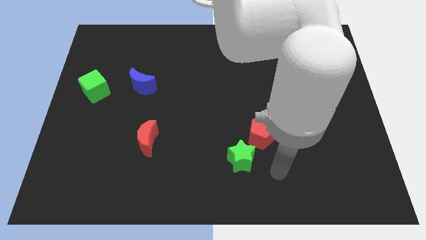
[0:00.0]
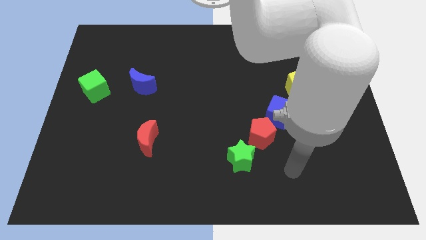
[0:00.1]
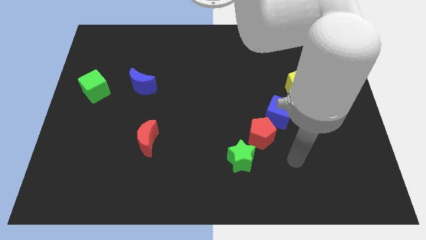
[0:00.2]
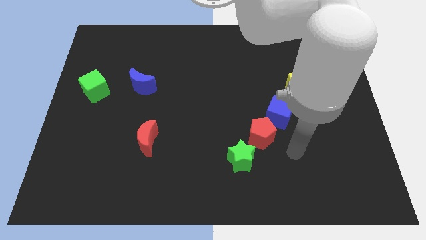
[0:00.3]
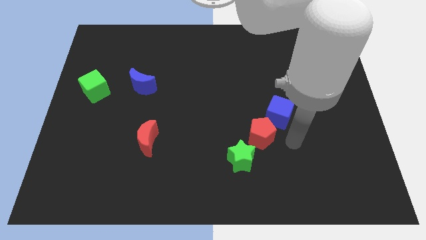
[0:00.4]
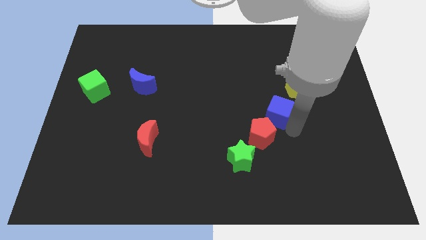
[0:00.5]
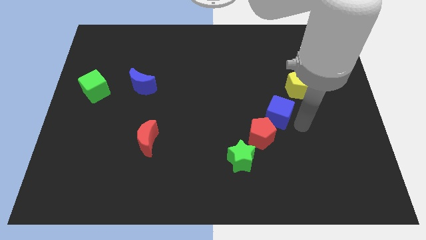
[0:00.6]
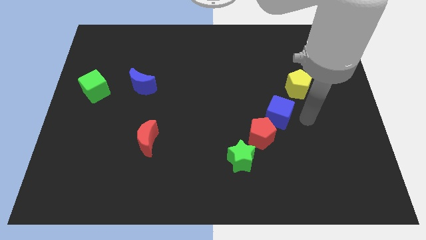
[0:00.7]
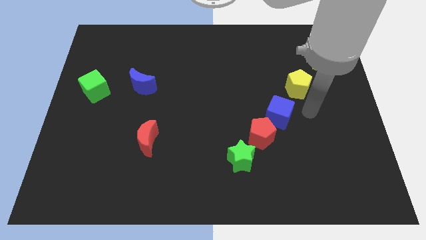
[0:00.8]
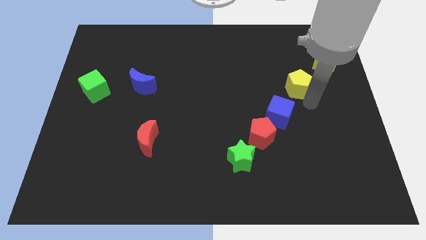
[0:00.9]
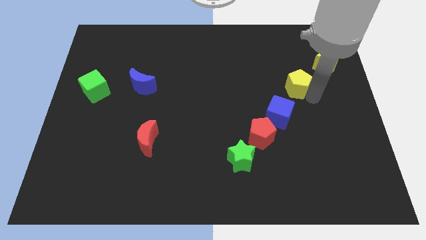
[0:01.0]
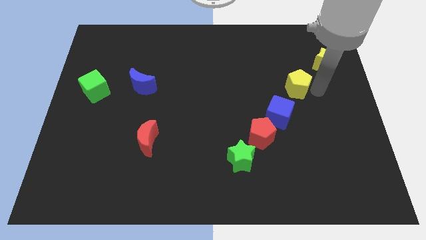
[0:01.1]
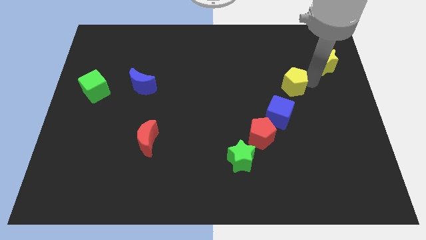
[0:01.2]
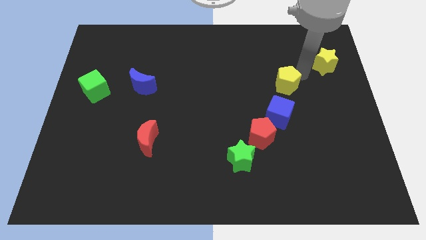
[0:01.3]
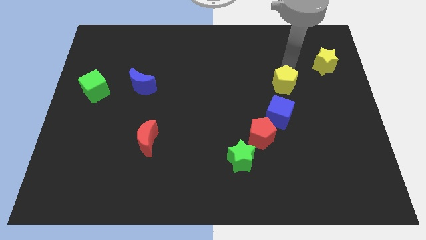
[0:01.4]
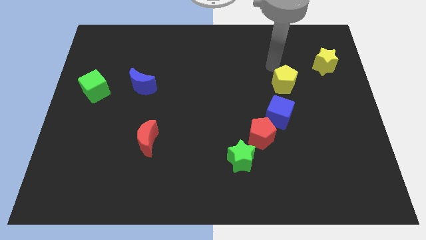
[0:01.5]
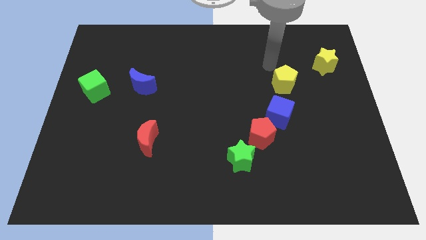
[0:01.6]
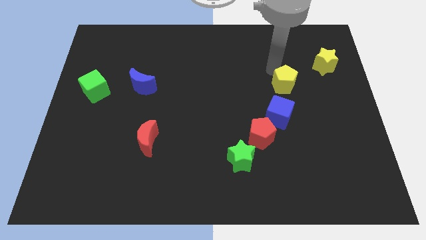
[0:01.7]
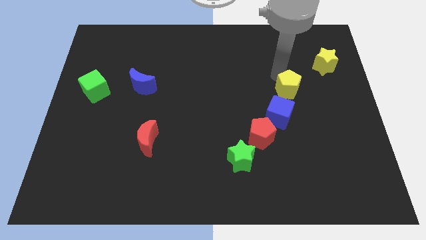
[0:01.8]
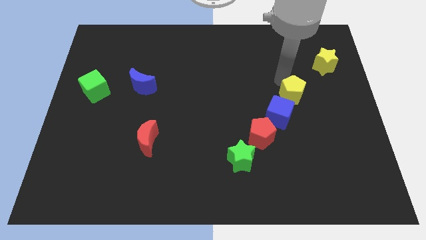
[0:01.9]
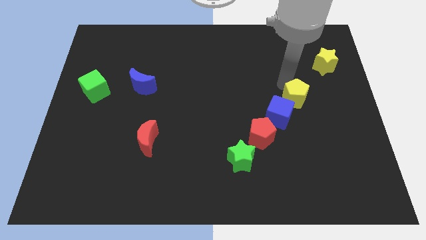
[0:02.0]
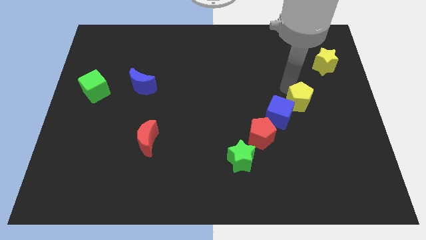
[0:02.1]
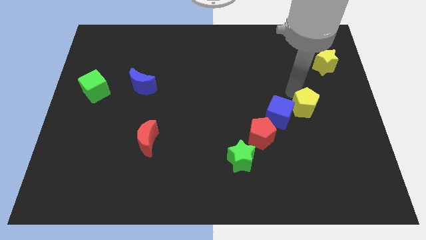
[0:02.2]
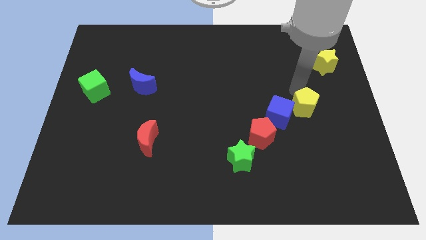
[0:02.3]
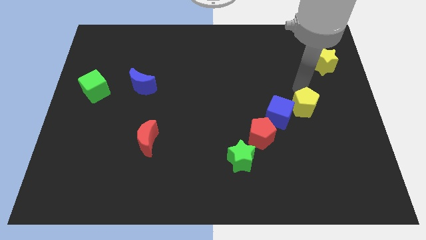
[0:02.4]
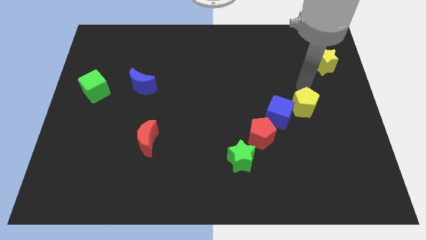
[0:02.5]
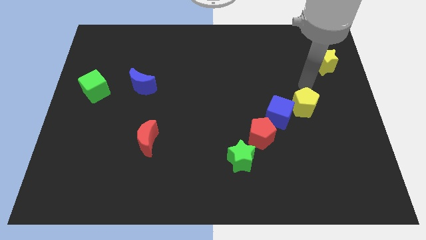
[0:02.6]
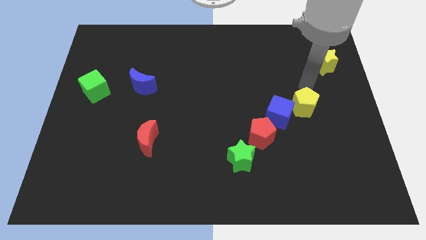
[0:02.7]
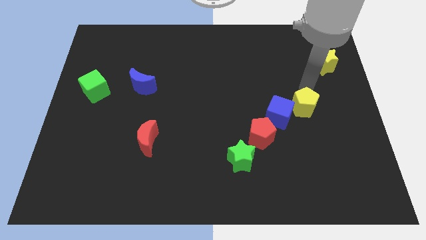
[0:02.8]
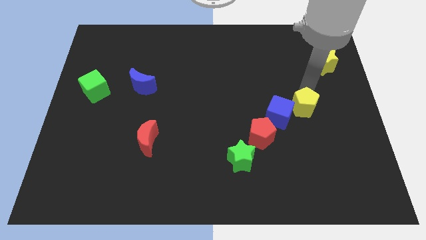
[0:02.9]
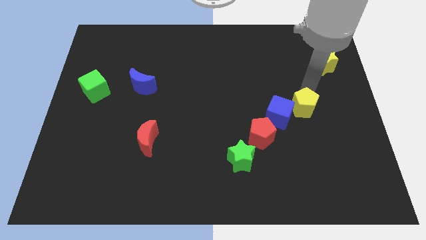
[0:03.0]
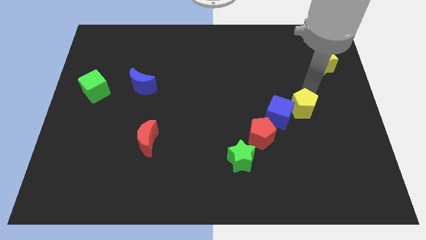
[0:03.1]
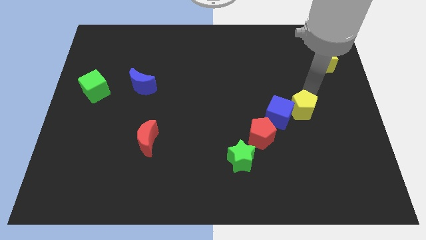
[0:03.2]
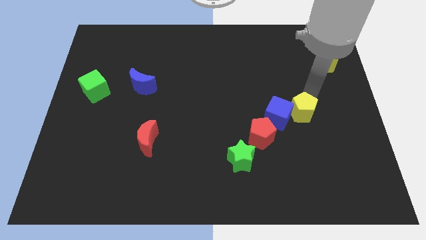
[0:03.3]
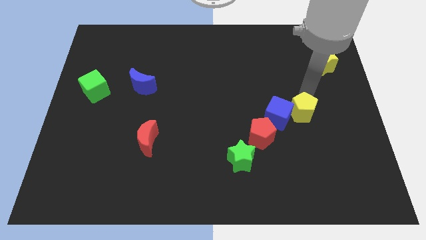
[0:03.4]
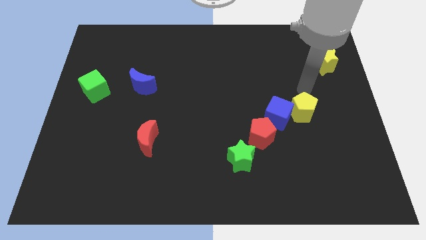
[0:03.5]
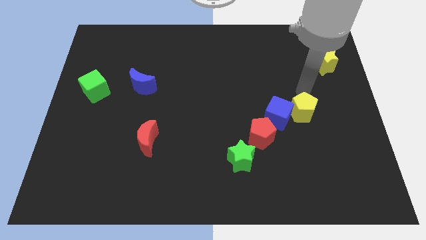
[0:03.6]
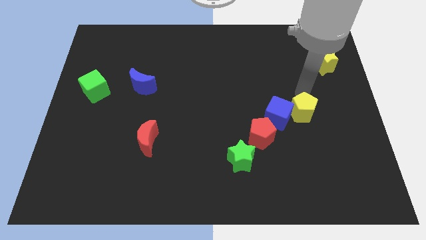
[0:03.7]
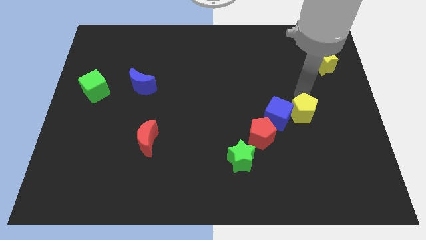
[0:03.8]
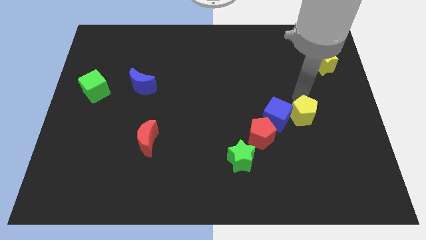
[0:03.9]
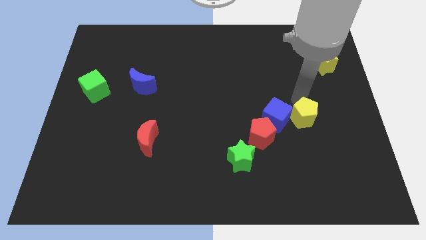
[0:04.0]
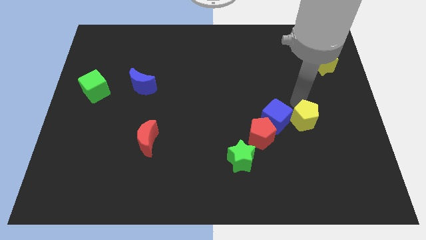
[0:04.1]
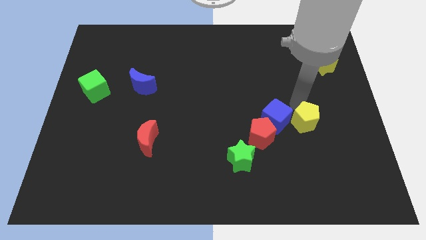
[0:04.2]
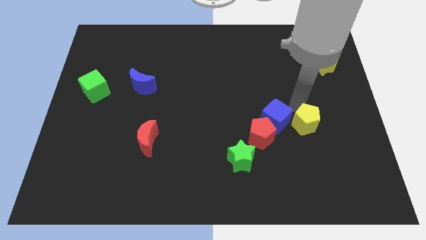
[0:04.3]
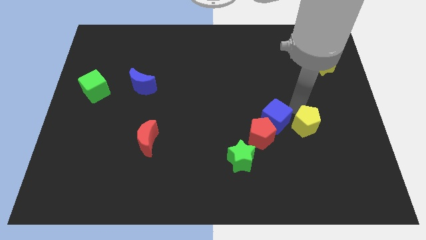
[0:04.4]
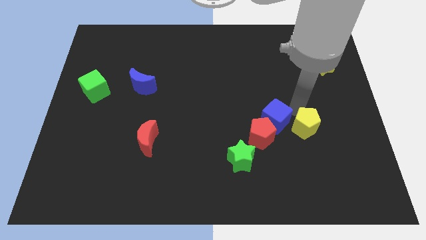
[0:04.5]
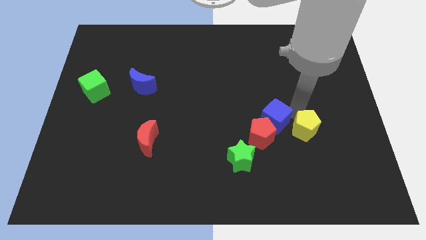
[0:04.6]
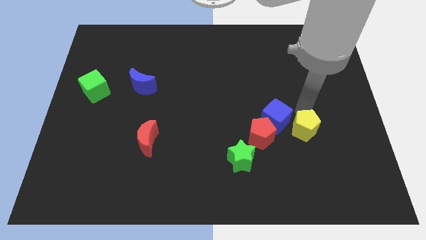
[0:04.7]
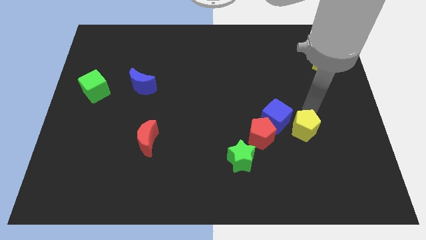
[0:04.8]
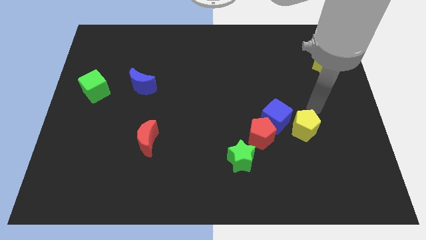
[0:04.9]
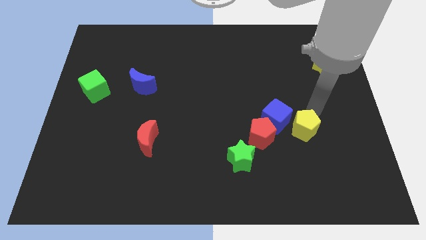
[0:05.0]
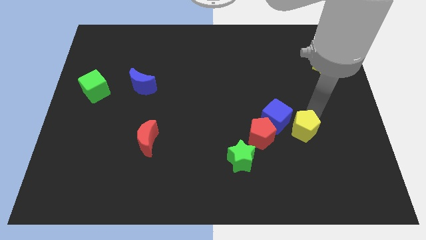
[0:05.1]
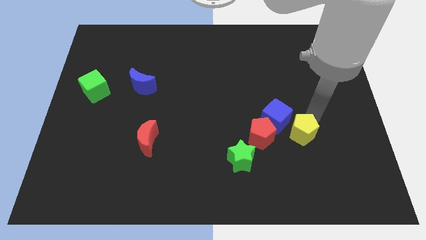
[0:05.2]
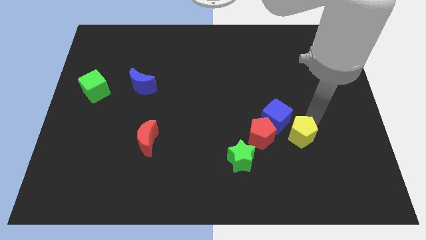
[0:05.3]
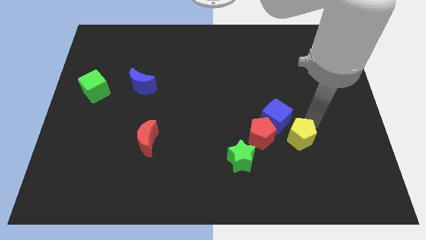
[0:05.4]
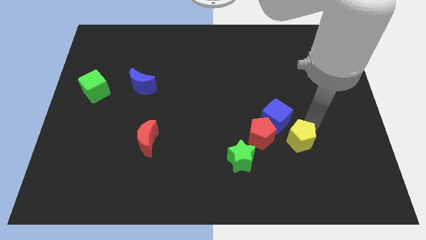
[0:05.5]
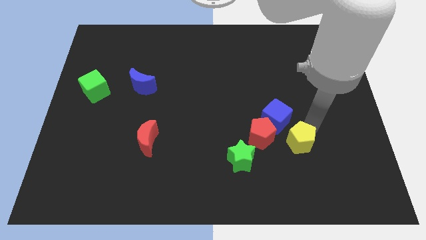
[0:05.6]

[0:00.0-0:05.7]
push the yellow pentagon diagonally down and to the right of the red pentagon

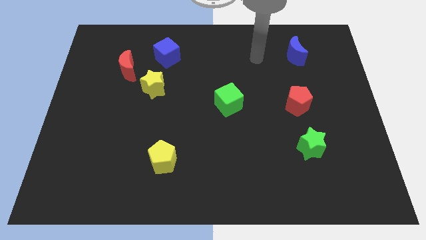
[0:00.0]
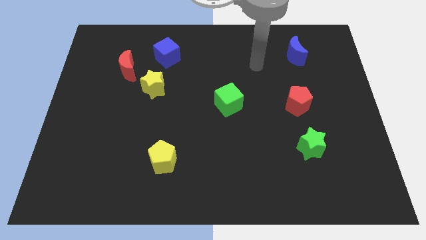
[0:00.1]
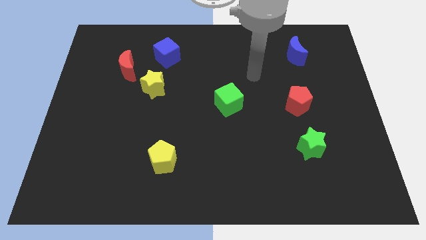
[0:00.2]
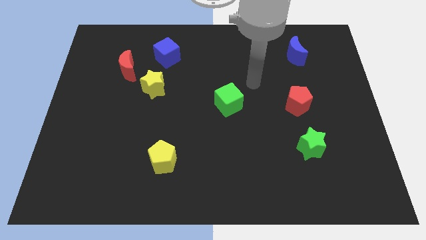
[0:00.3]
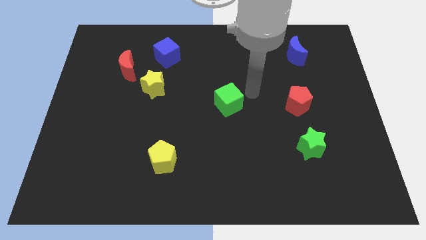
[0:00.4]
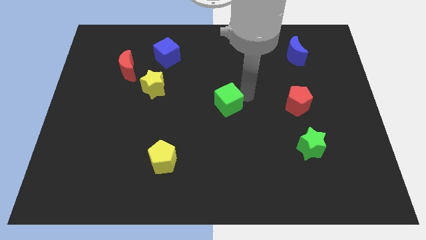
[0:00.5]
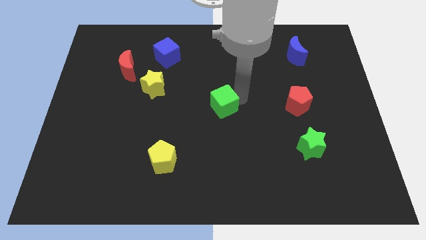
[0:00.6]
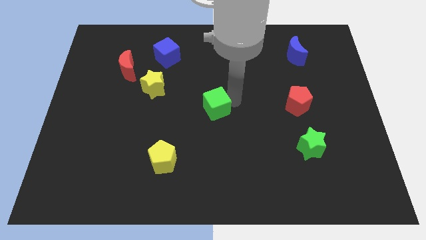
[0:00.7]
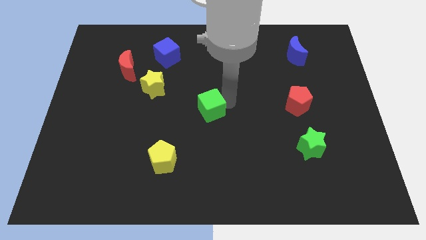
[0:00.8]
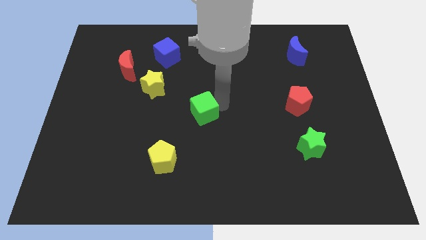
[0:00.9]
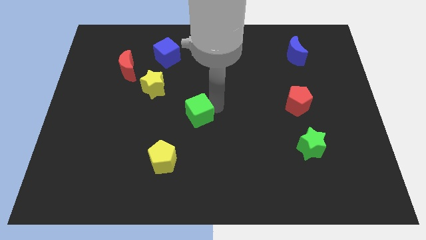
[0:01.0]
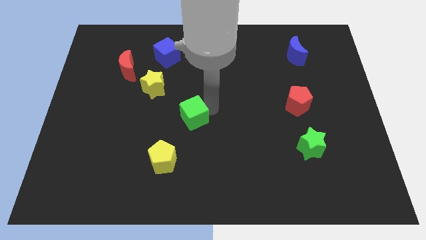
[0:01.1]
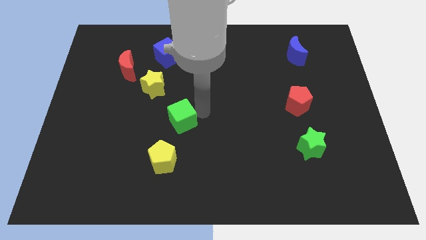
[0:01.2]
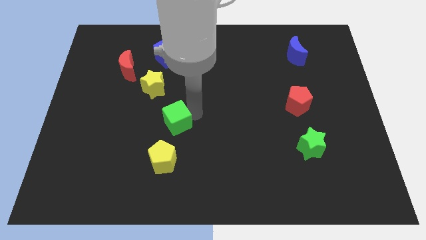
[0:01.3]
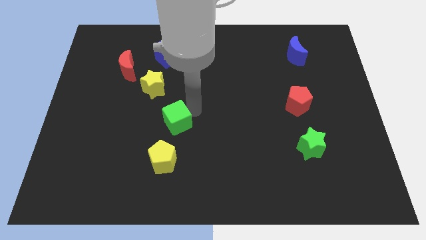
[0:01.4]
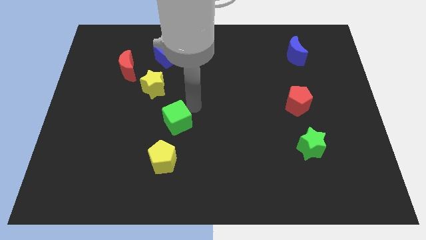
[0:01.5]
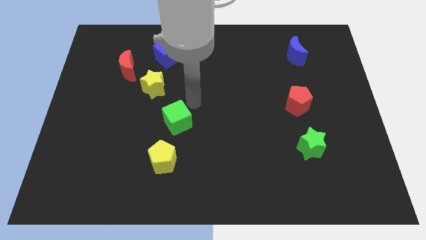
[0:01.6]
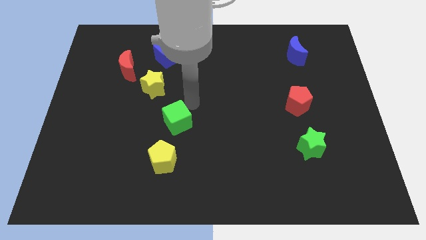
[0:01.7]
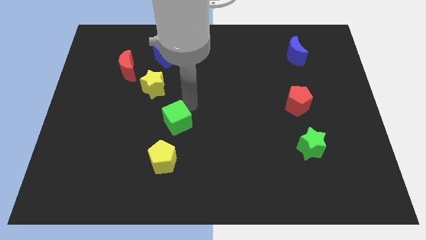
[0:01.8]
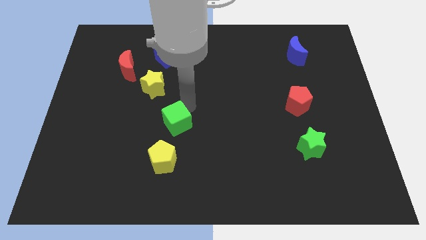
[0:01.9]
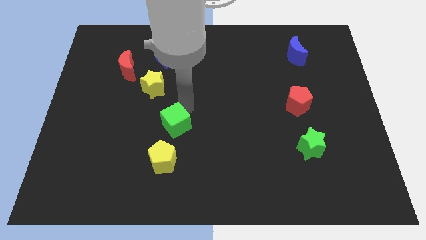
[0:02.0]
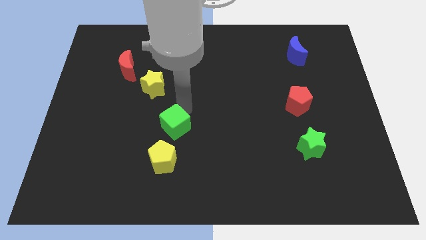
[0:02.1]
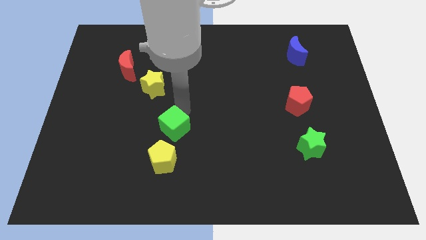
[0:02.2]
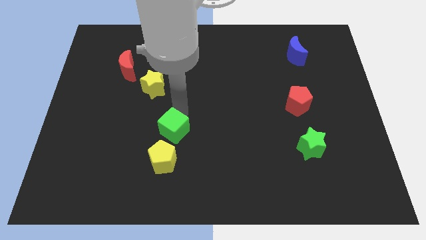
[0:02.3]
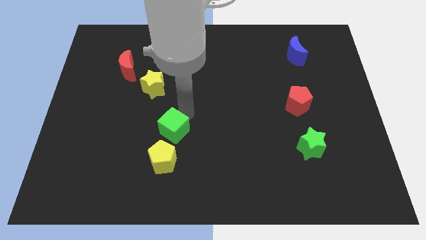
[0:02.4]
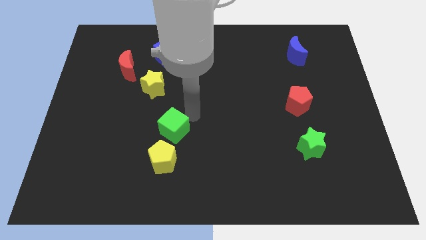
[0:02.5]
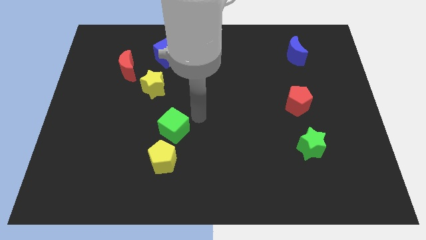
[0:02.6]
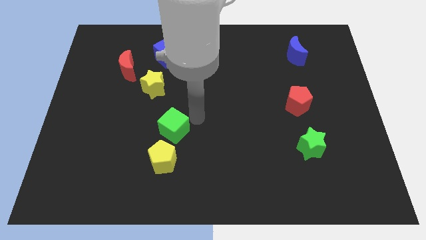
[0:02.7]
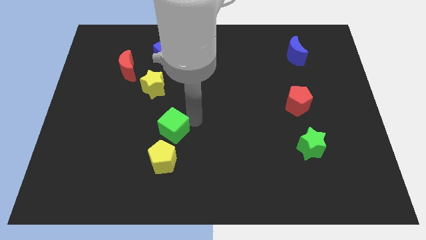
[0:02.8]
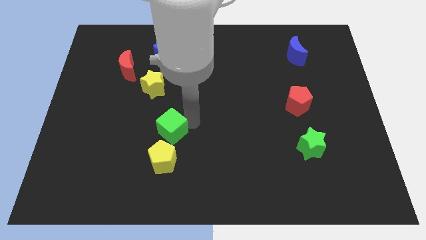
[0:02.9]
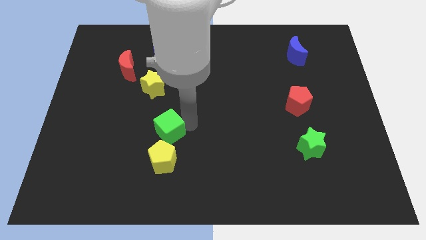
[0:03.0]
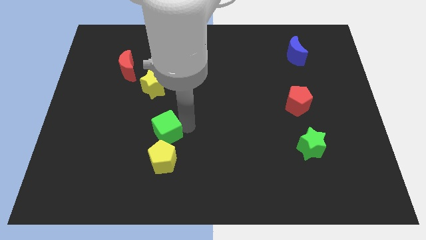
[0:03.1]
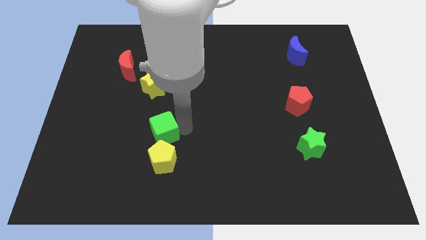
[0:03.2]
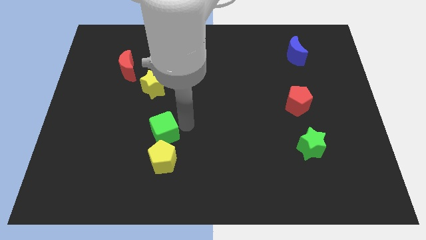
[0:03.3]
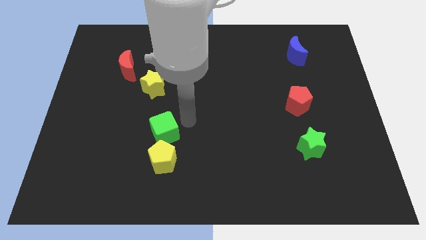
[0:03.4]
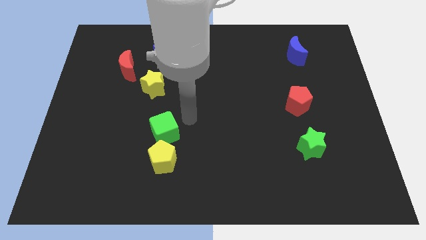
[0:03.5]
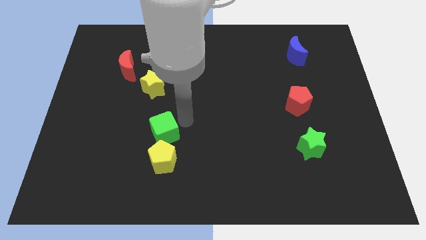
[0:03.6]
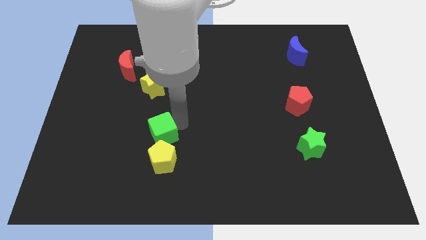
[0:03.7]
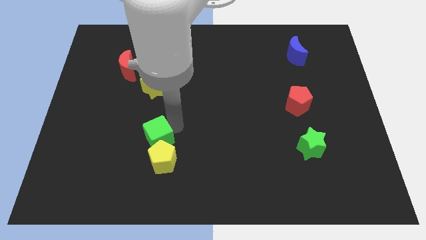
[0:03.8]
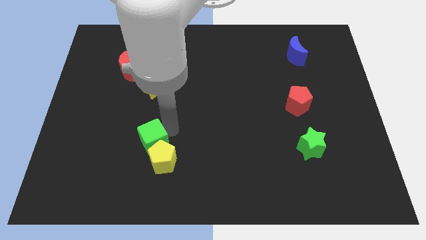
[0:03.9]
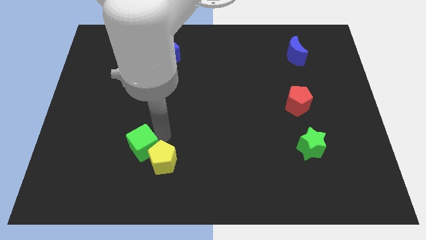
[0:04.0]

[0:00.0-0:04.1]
slide the green cube left of the yellow pentagon
